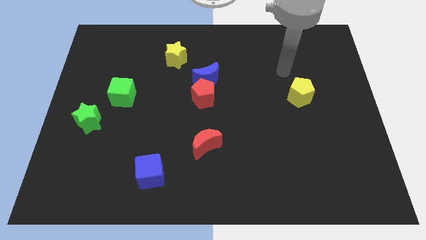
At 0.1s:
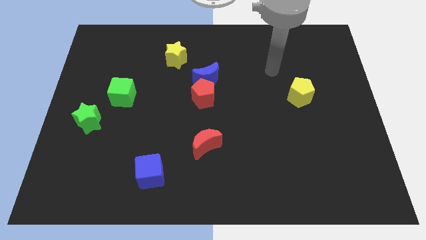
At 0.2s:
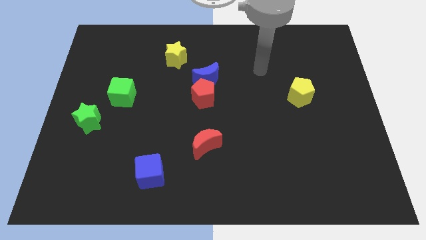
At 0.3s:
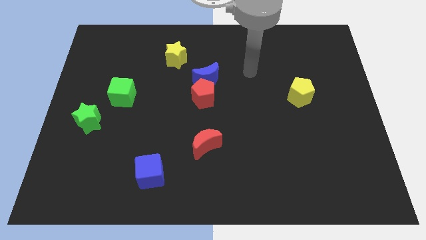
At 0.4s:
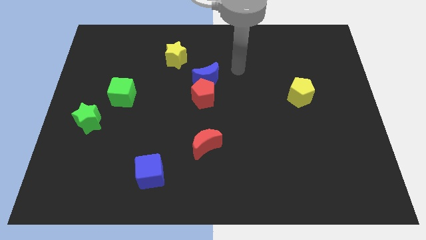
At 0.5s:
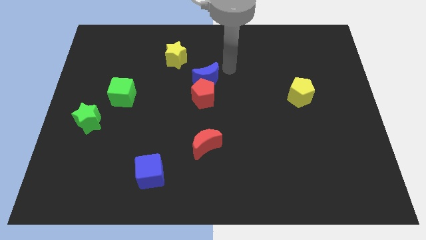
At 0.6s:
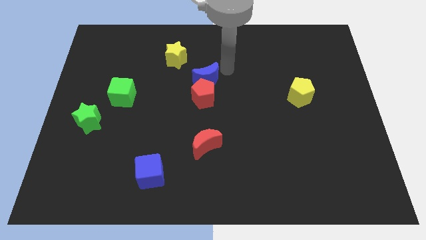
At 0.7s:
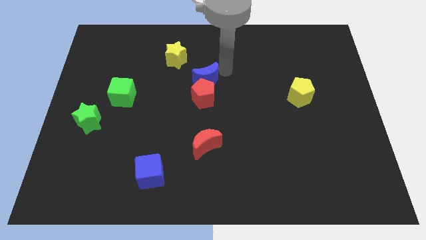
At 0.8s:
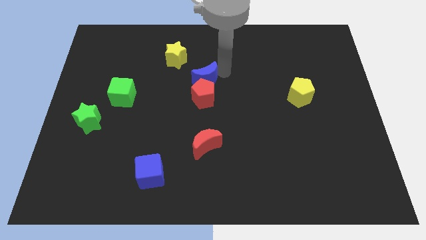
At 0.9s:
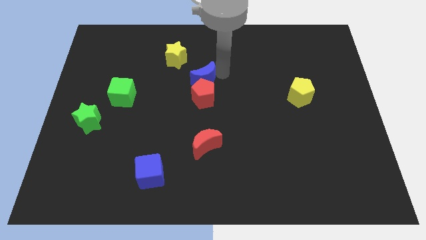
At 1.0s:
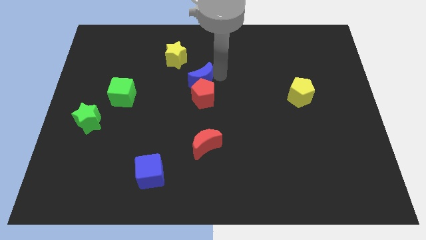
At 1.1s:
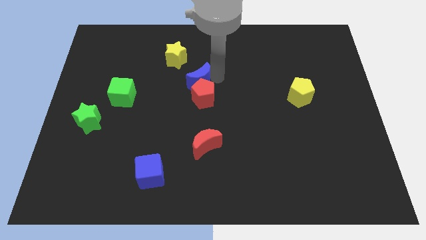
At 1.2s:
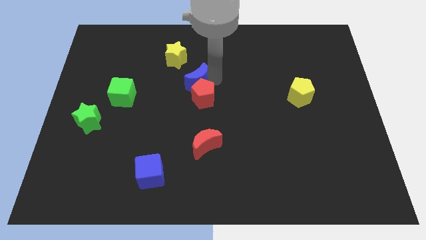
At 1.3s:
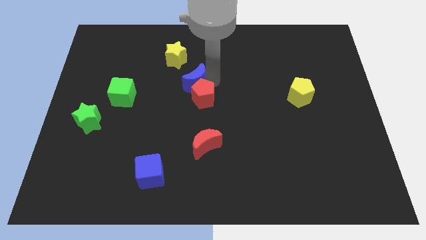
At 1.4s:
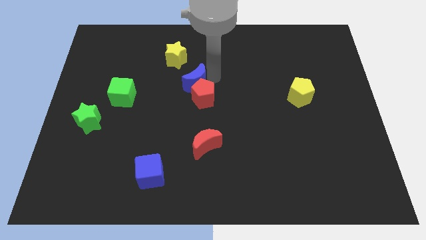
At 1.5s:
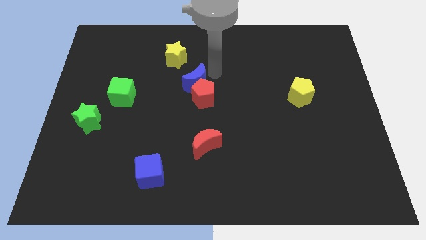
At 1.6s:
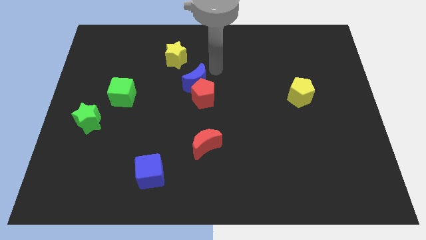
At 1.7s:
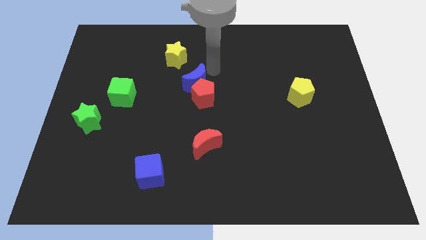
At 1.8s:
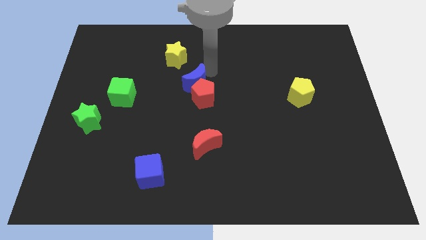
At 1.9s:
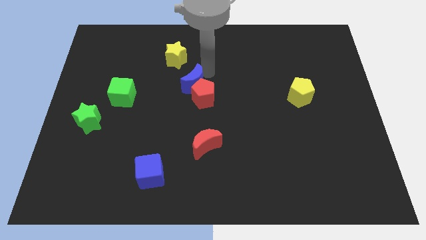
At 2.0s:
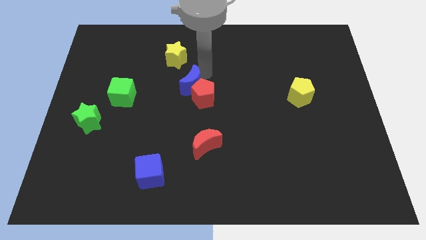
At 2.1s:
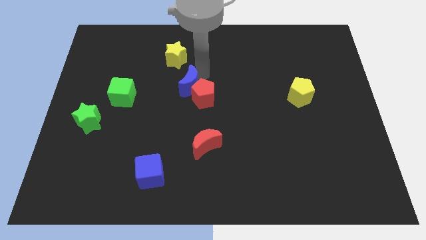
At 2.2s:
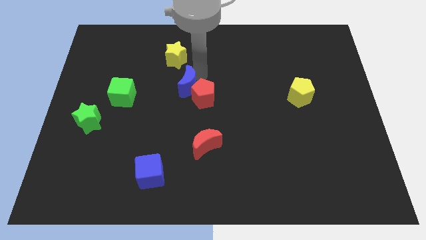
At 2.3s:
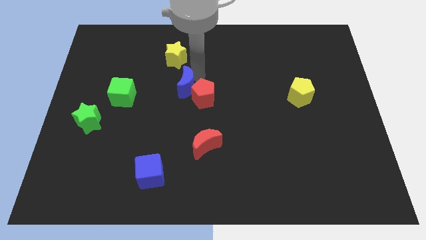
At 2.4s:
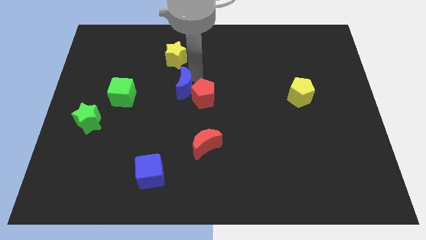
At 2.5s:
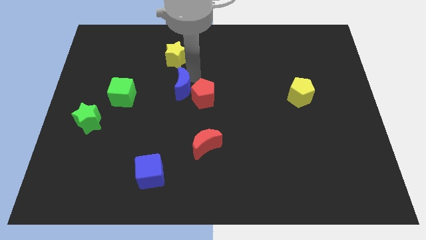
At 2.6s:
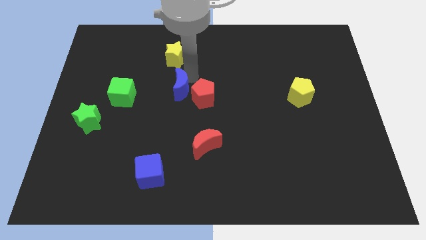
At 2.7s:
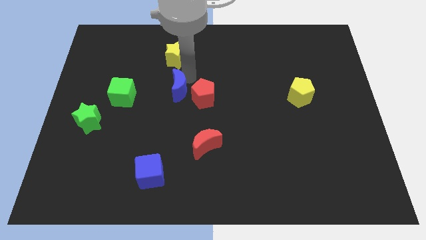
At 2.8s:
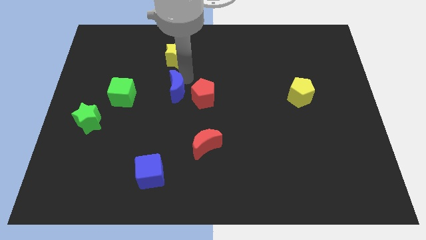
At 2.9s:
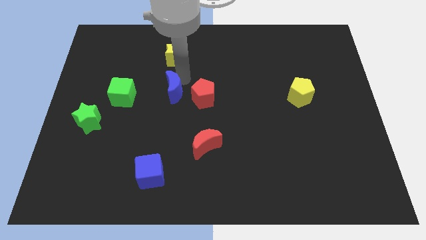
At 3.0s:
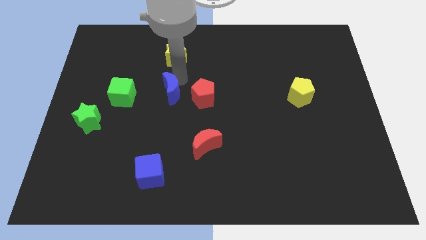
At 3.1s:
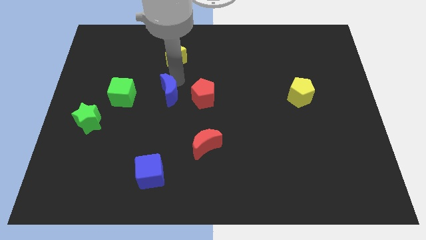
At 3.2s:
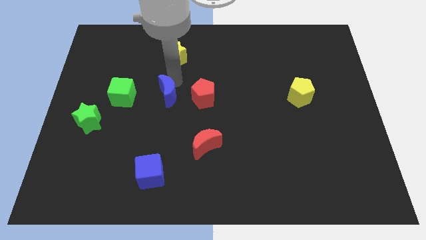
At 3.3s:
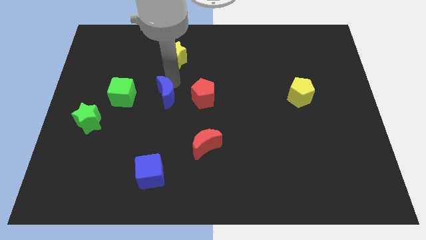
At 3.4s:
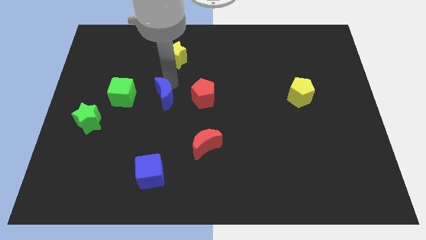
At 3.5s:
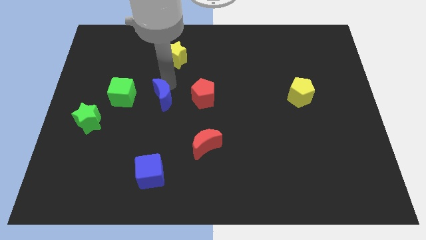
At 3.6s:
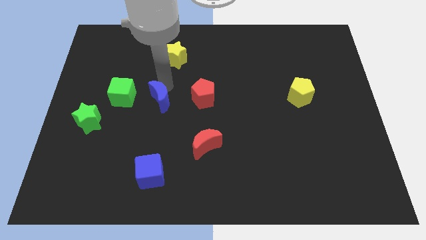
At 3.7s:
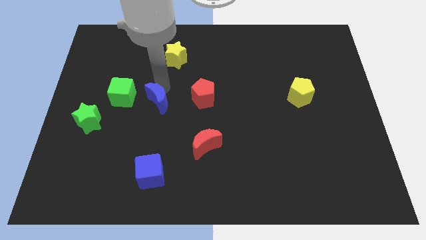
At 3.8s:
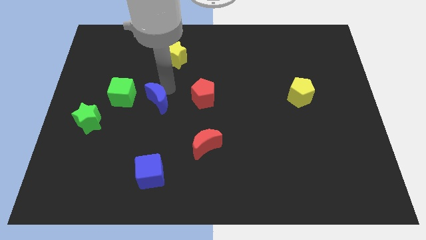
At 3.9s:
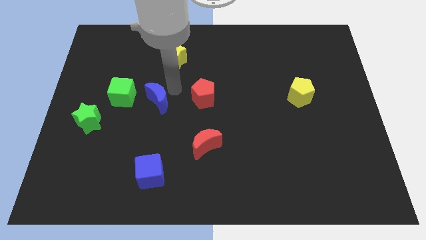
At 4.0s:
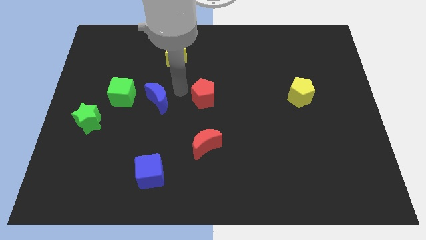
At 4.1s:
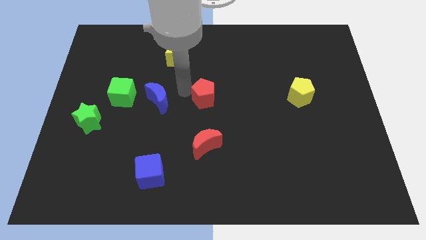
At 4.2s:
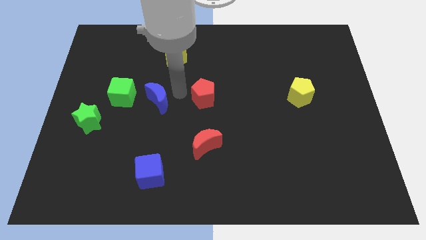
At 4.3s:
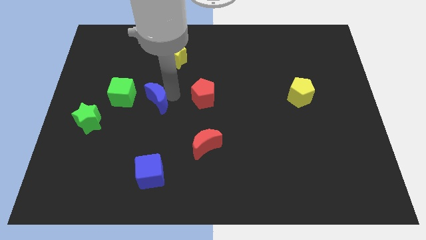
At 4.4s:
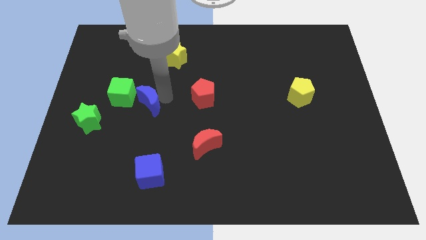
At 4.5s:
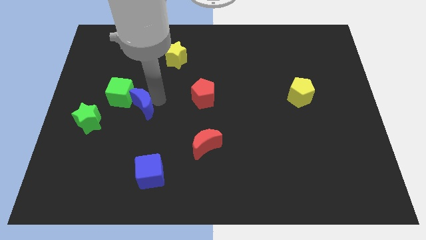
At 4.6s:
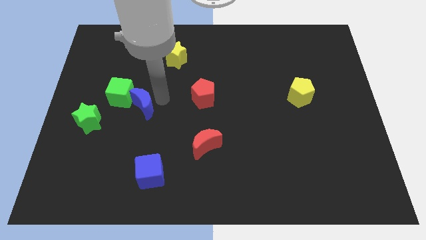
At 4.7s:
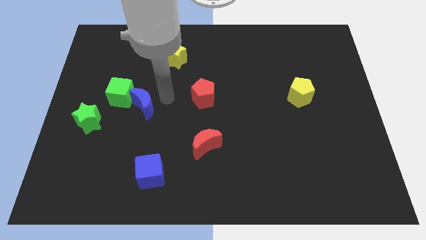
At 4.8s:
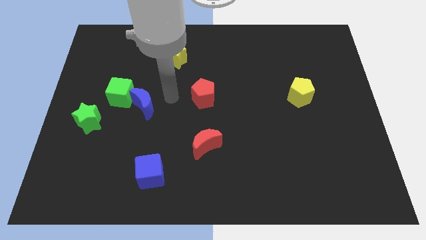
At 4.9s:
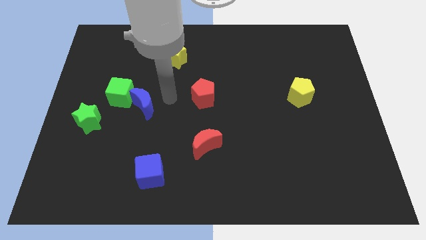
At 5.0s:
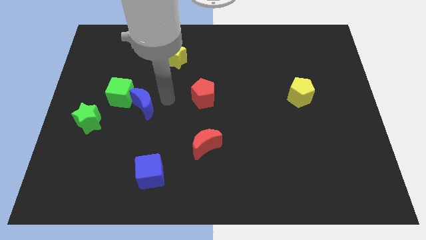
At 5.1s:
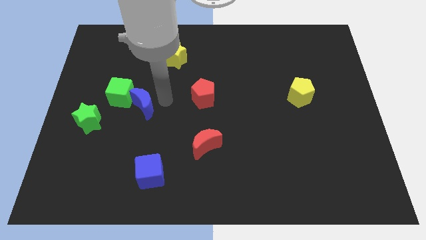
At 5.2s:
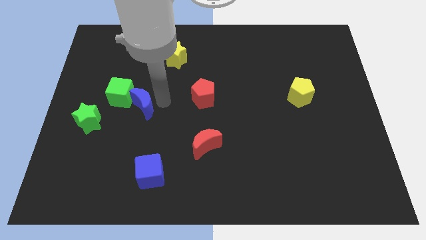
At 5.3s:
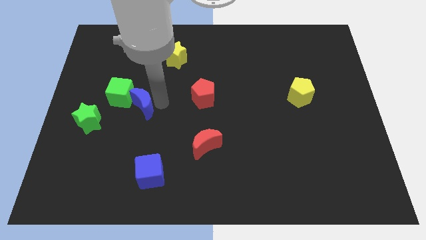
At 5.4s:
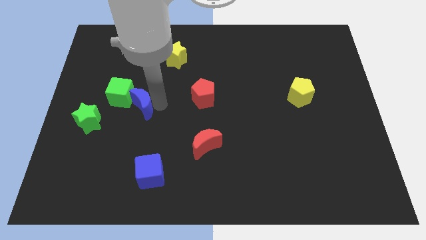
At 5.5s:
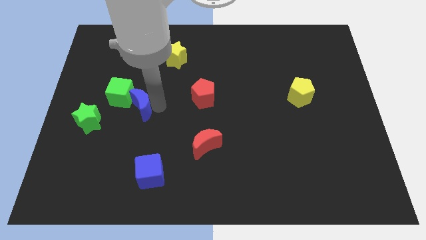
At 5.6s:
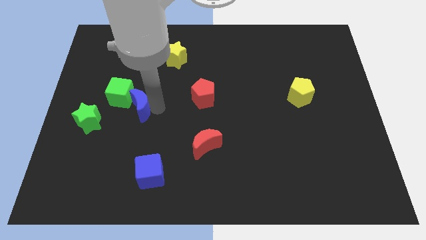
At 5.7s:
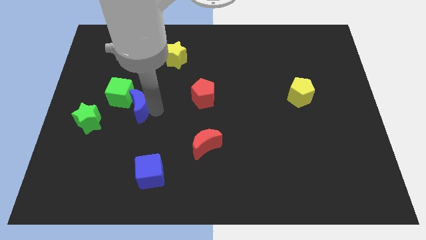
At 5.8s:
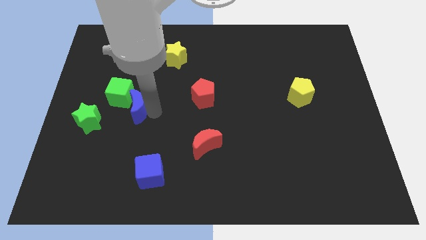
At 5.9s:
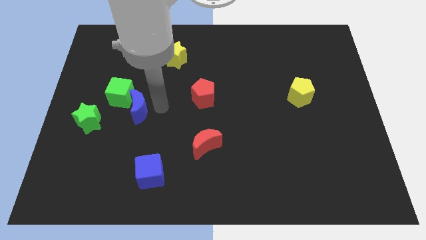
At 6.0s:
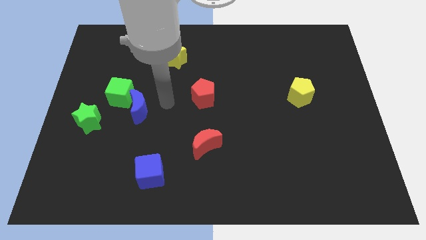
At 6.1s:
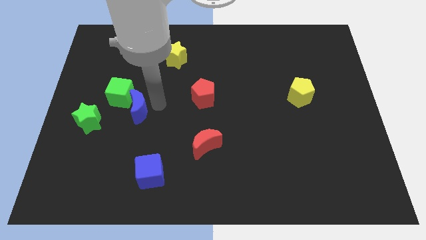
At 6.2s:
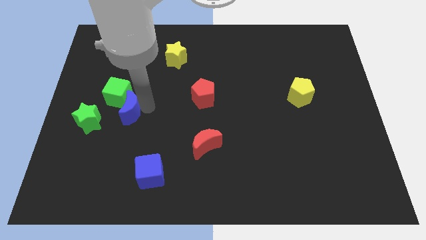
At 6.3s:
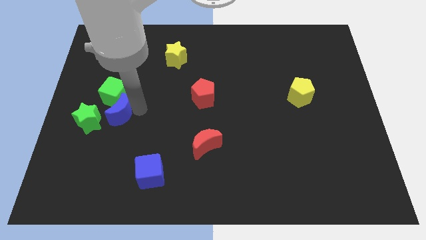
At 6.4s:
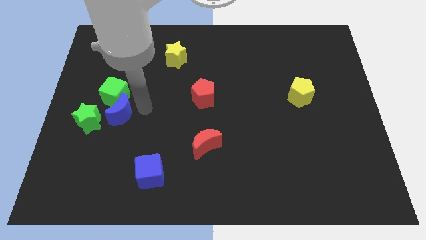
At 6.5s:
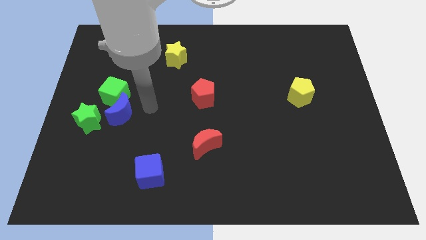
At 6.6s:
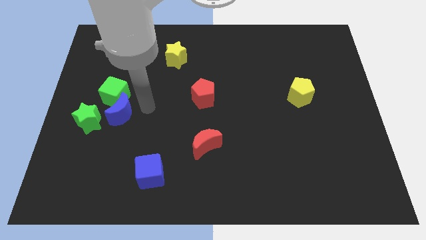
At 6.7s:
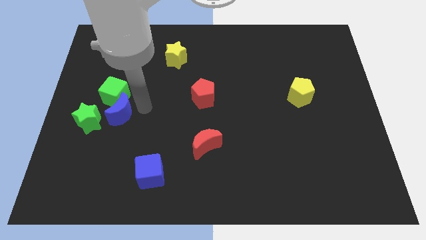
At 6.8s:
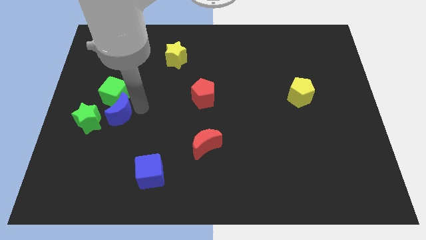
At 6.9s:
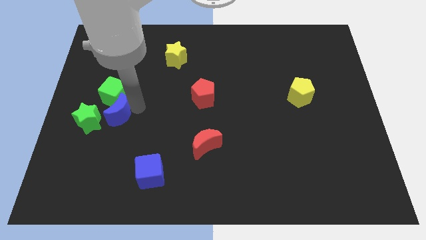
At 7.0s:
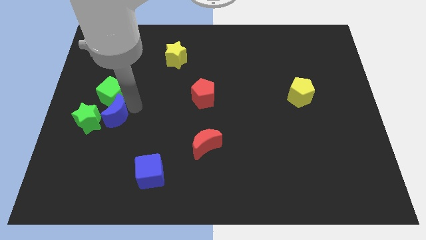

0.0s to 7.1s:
put the blue moon next to the green star

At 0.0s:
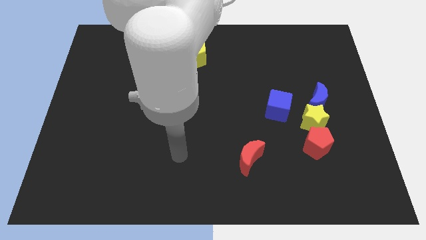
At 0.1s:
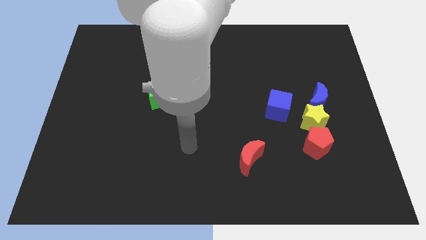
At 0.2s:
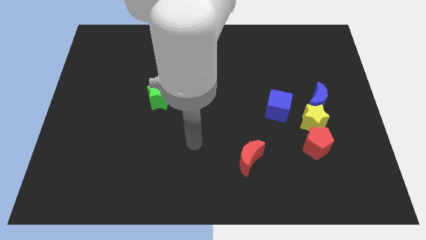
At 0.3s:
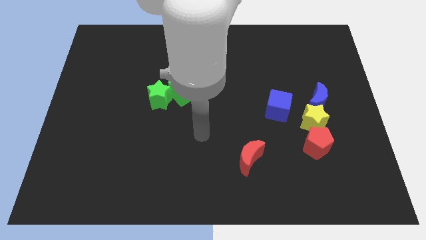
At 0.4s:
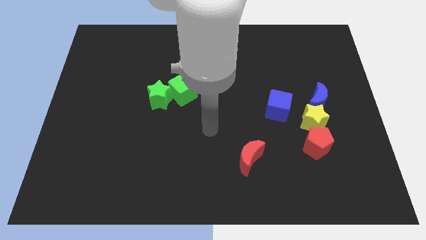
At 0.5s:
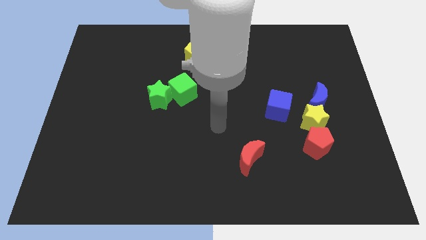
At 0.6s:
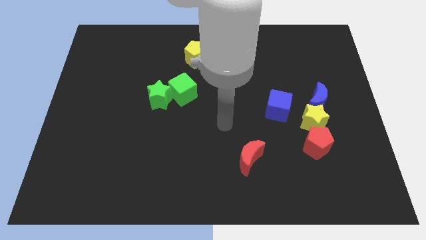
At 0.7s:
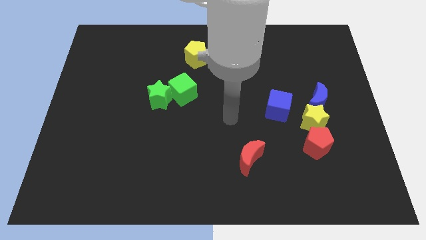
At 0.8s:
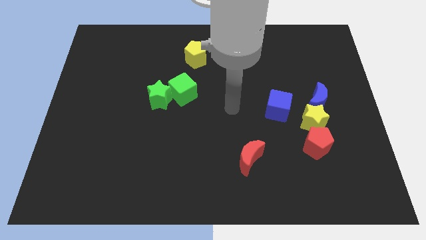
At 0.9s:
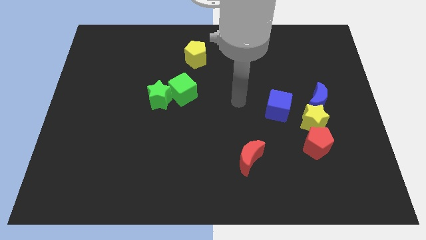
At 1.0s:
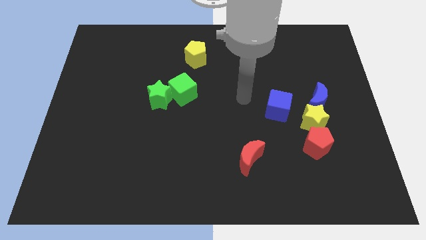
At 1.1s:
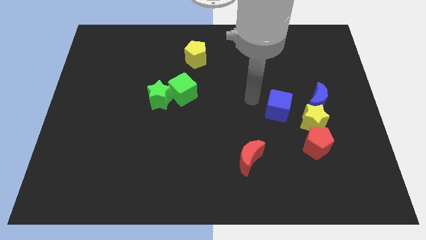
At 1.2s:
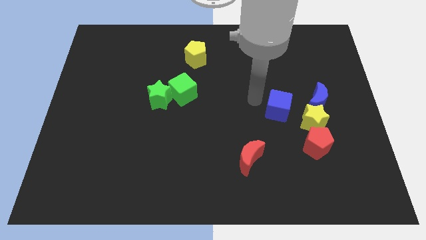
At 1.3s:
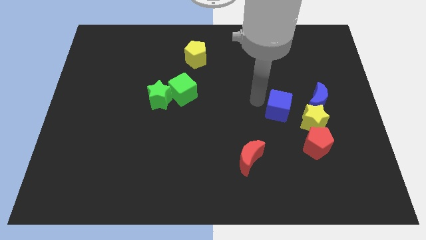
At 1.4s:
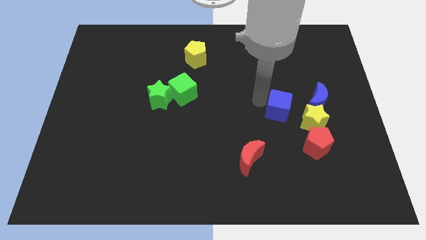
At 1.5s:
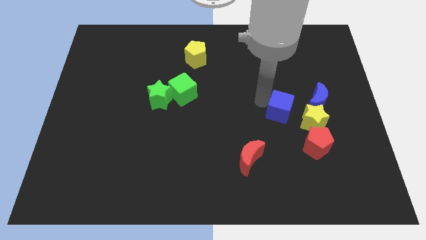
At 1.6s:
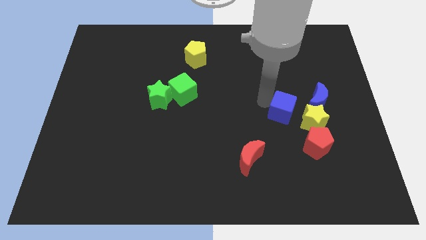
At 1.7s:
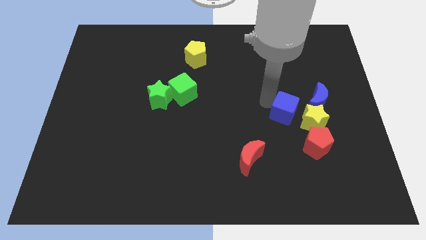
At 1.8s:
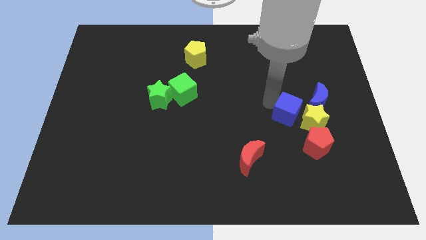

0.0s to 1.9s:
put the blue cube to the yellow star
